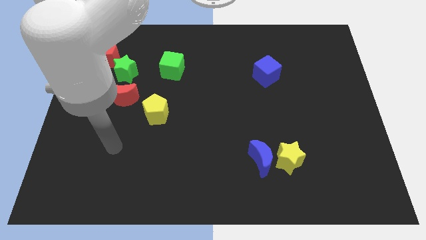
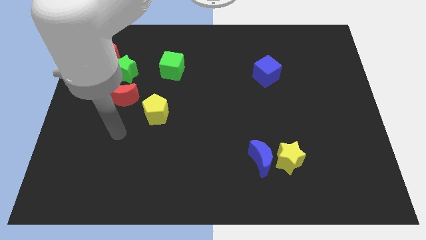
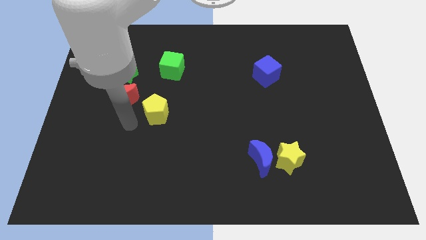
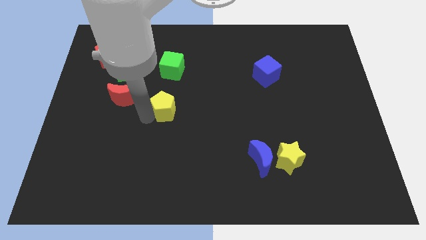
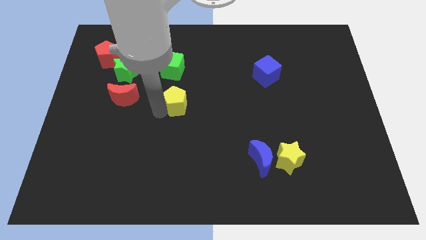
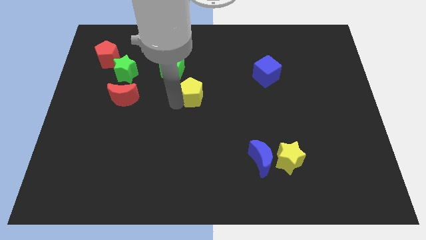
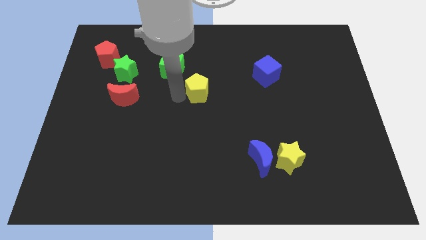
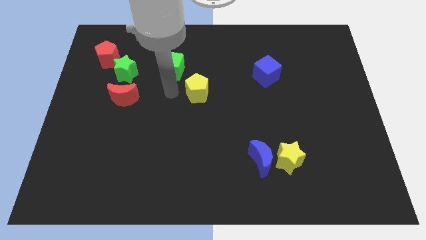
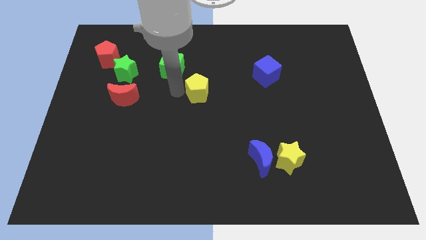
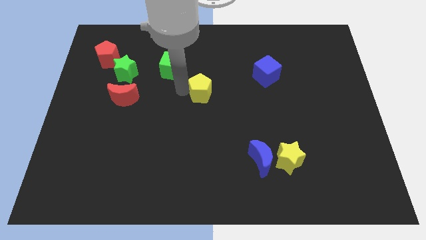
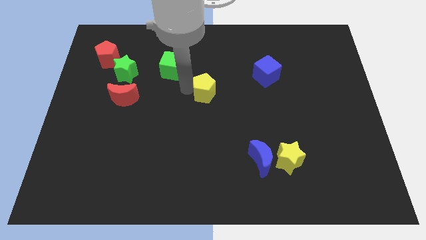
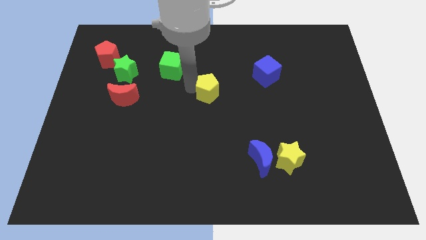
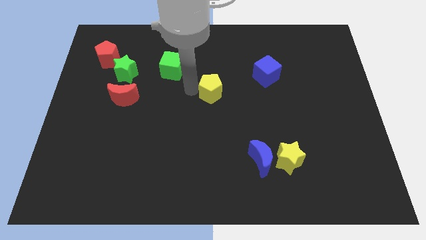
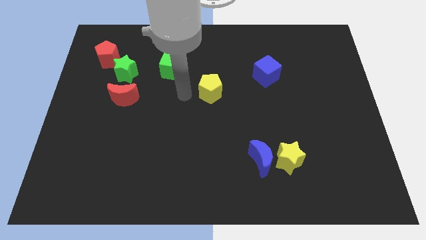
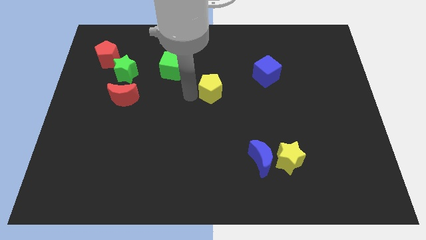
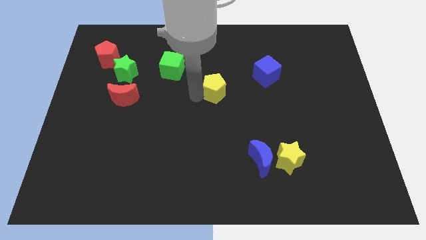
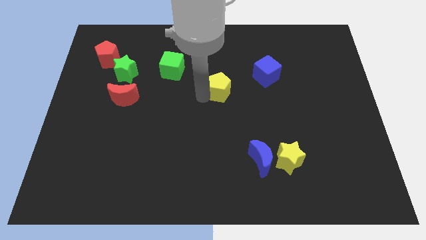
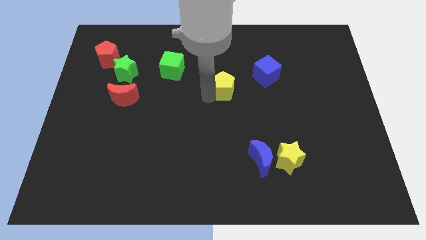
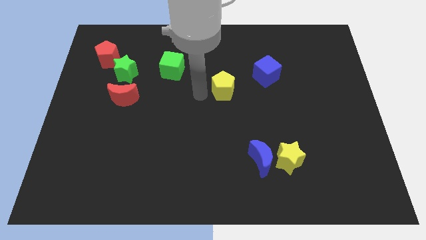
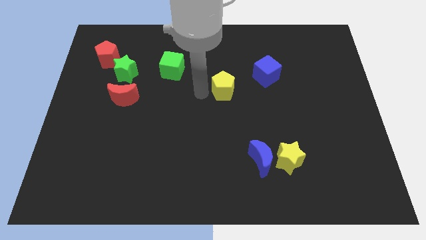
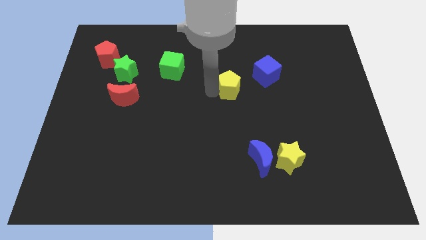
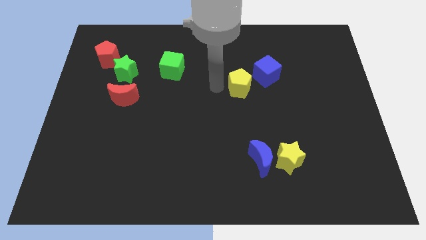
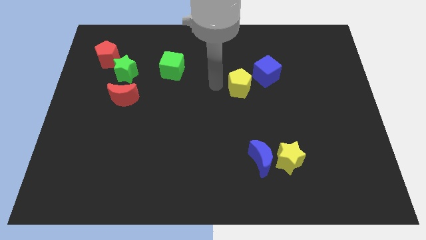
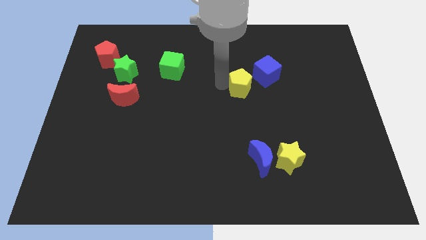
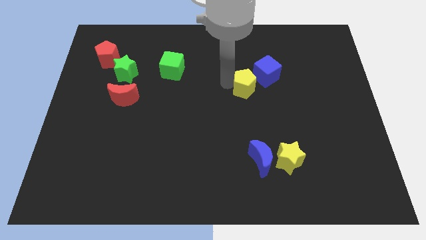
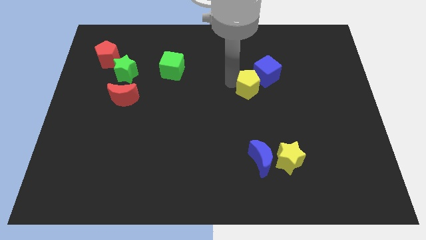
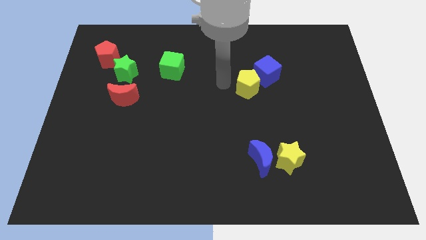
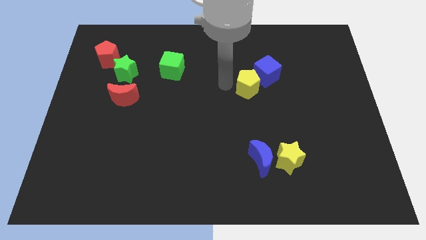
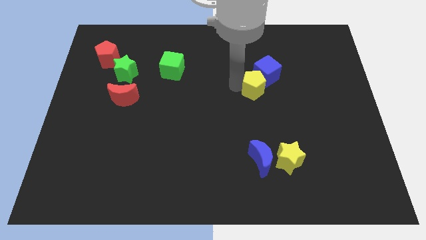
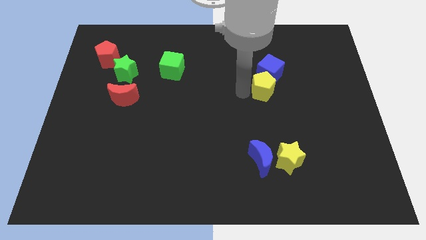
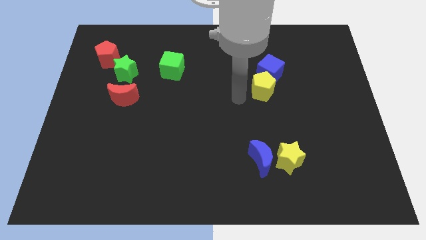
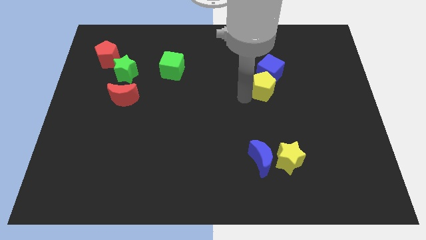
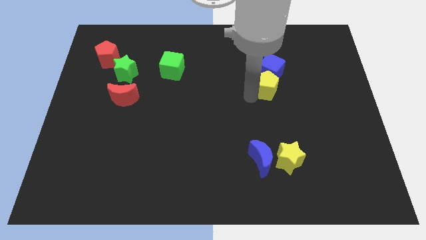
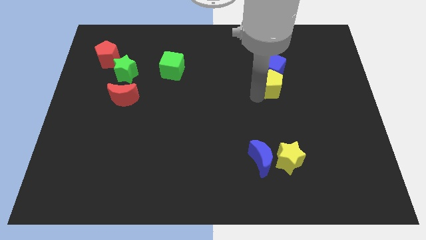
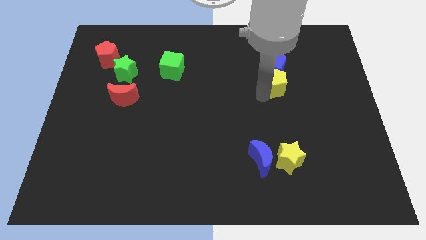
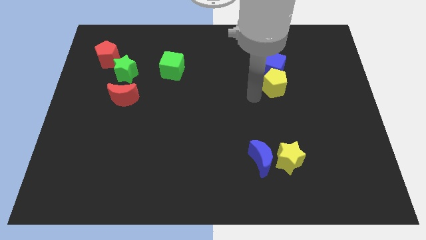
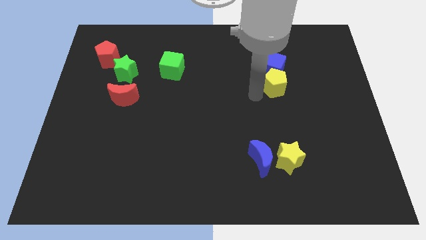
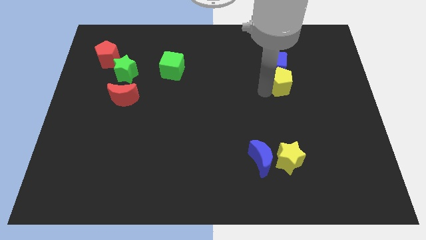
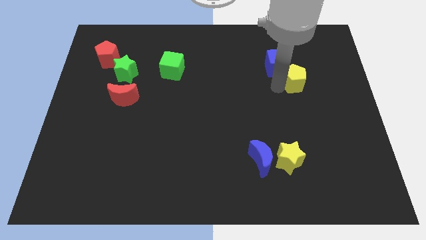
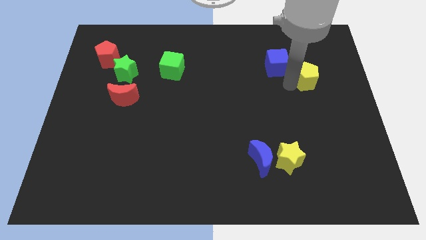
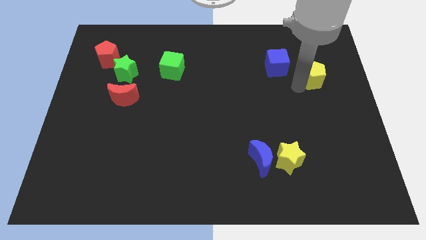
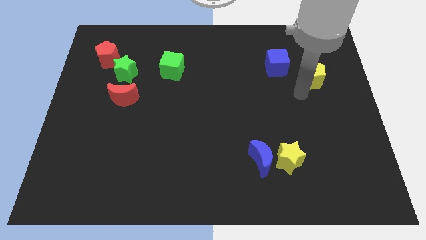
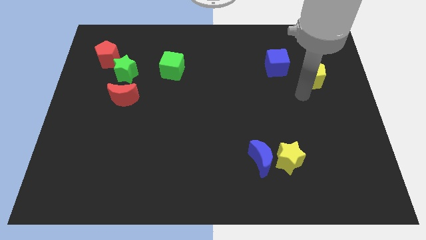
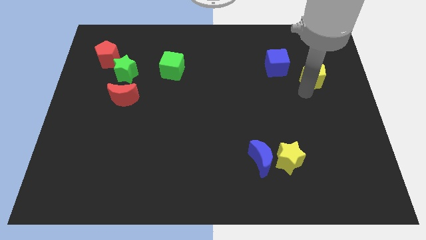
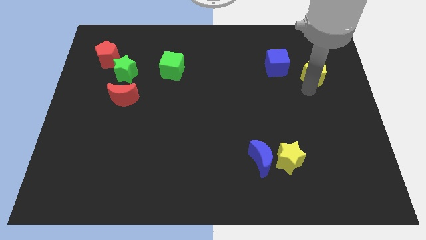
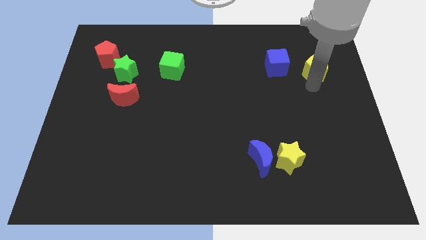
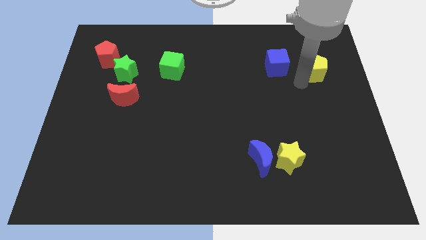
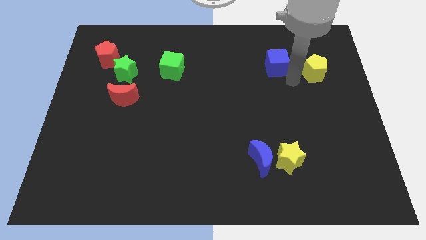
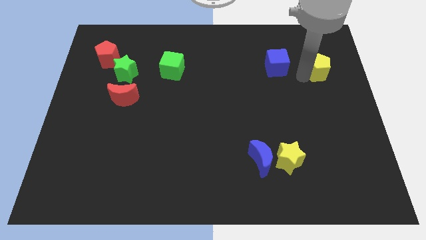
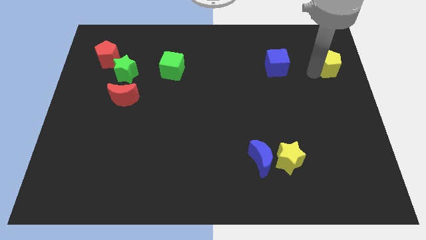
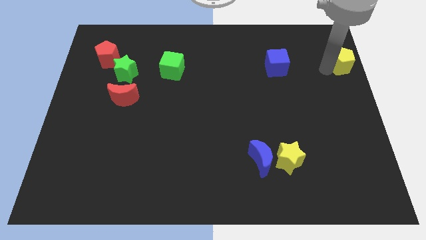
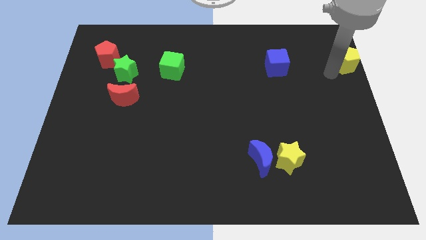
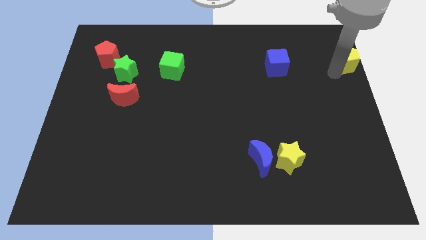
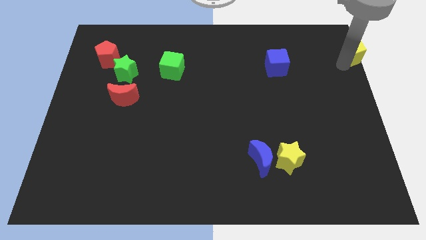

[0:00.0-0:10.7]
slide the yellow pentagon to the upper right corner
